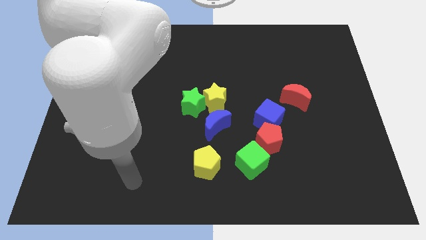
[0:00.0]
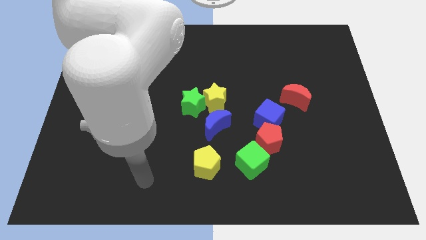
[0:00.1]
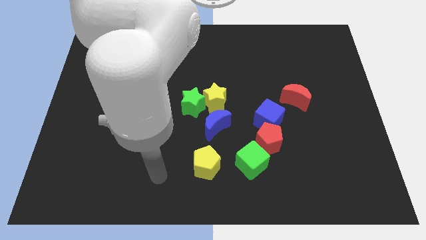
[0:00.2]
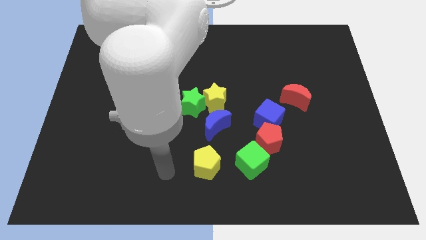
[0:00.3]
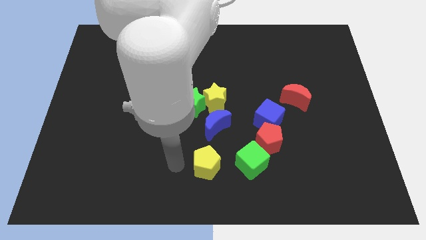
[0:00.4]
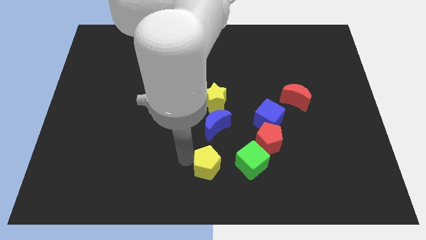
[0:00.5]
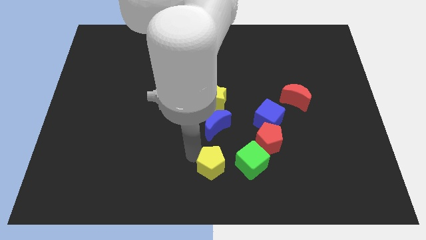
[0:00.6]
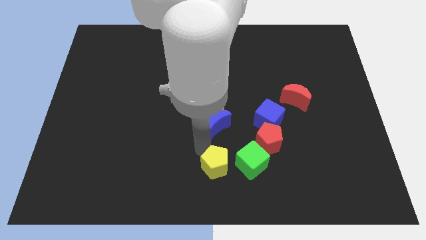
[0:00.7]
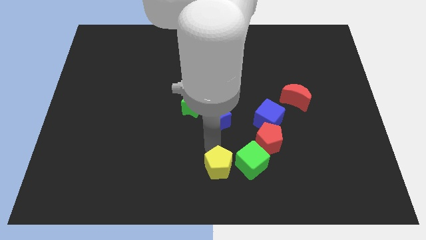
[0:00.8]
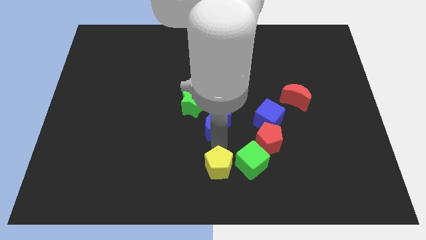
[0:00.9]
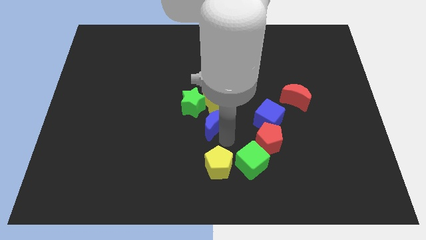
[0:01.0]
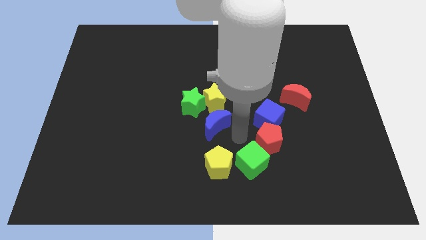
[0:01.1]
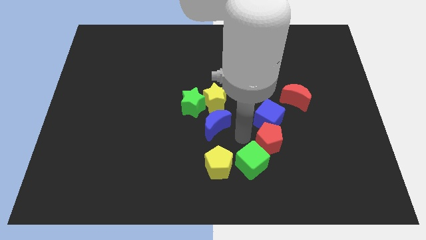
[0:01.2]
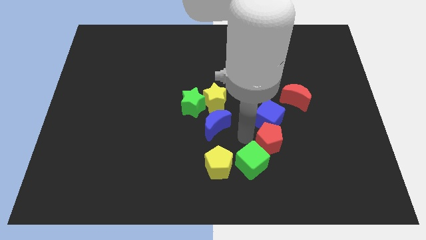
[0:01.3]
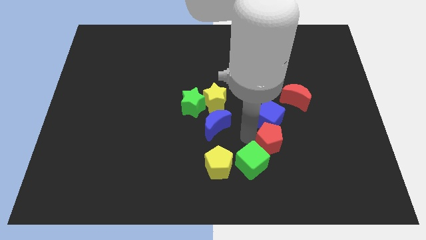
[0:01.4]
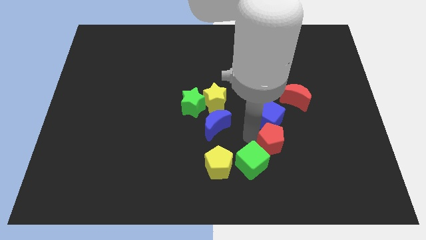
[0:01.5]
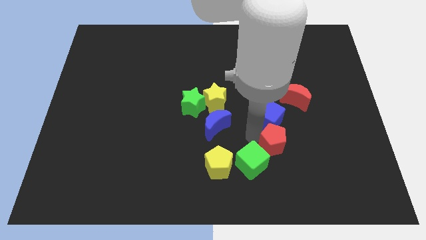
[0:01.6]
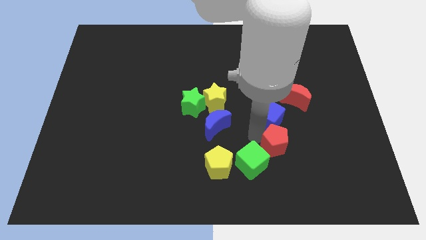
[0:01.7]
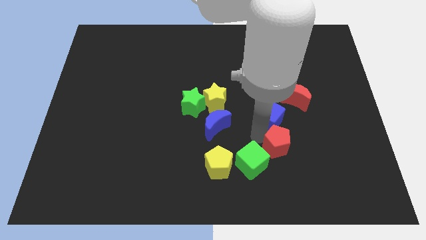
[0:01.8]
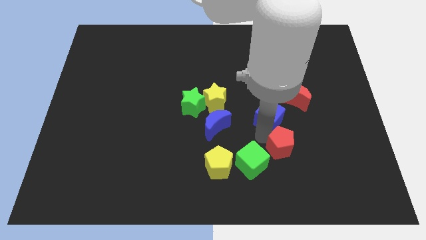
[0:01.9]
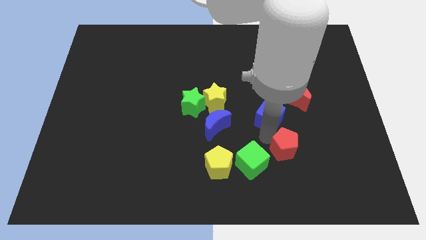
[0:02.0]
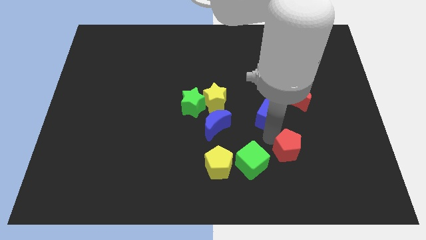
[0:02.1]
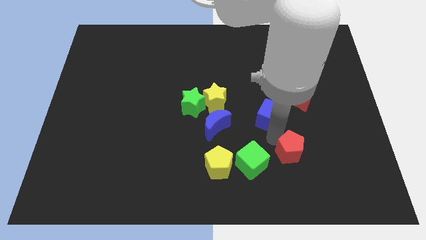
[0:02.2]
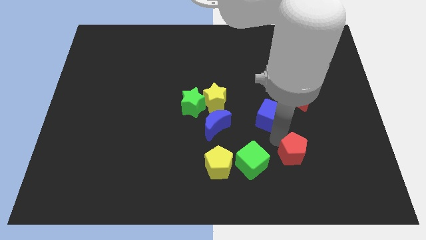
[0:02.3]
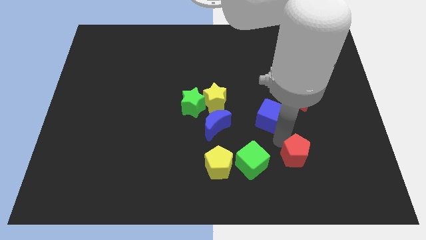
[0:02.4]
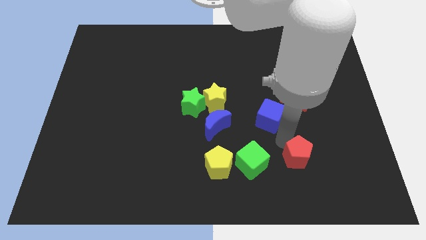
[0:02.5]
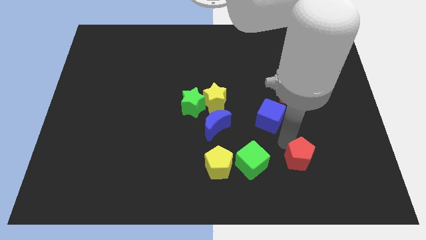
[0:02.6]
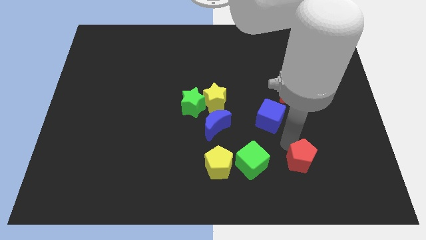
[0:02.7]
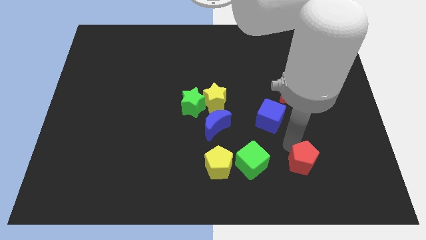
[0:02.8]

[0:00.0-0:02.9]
separate the red pentagon from the blue cube and green cube

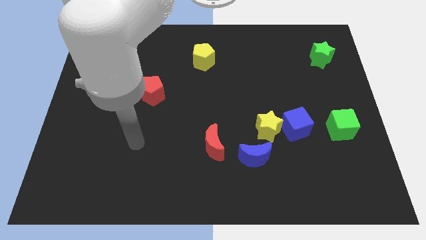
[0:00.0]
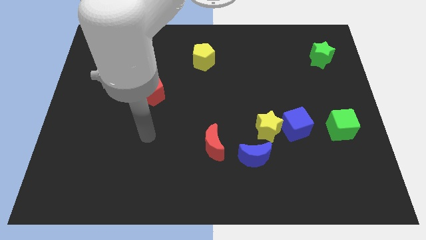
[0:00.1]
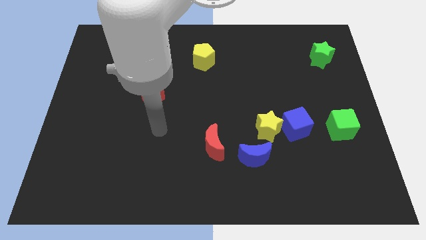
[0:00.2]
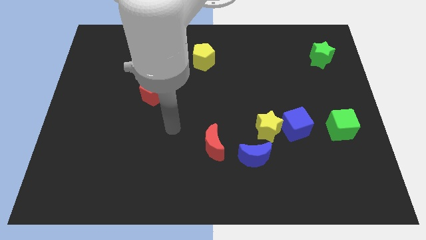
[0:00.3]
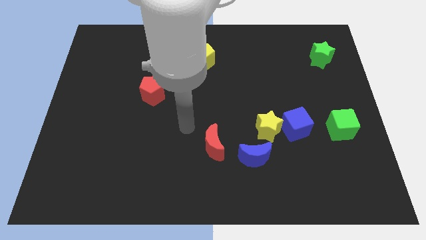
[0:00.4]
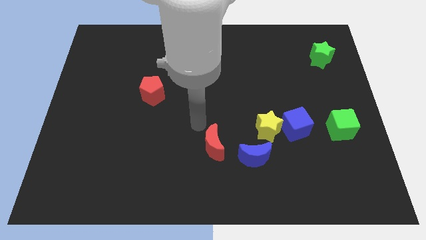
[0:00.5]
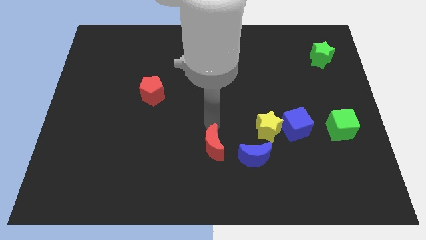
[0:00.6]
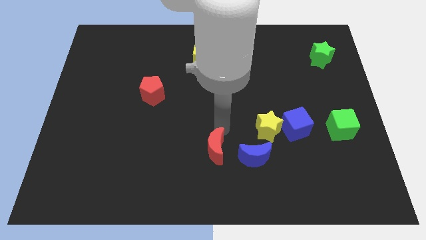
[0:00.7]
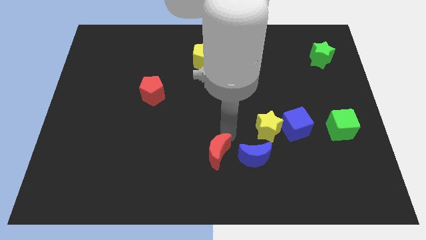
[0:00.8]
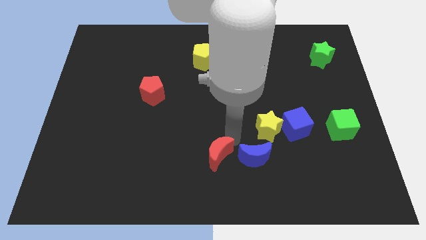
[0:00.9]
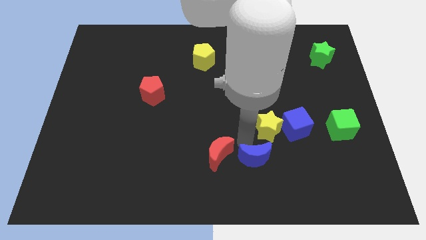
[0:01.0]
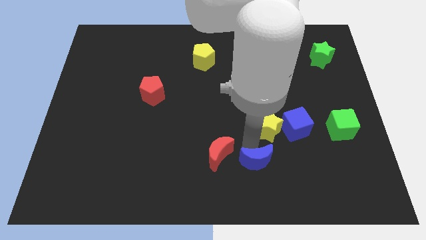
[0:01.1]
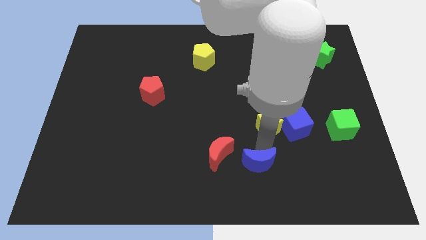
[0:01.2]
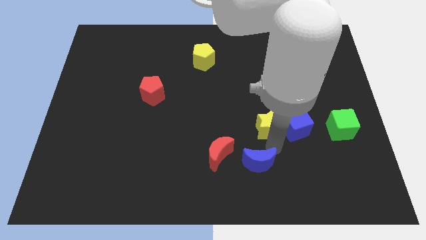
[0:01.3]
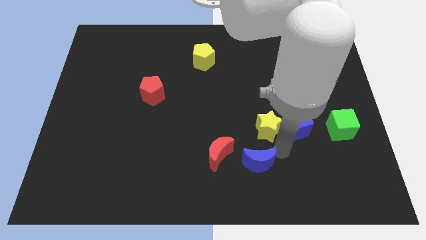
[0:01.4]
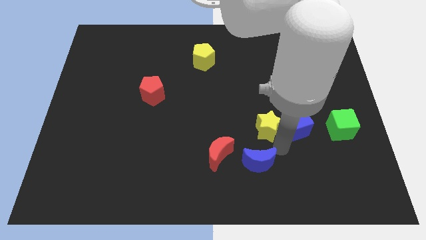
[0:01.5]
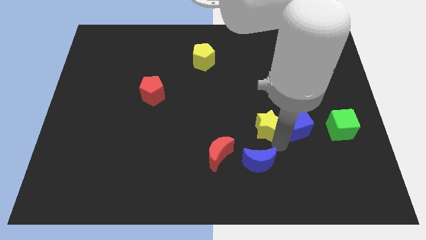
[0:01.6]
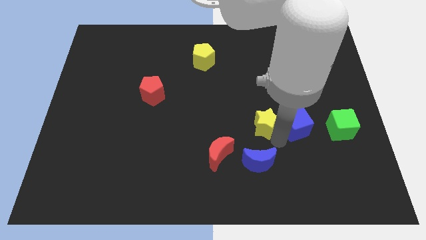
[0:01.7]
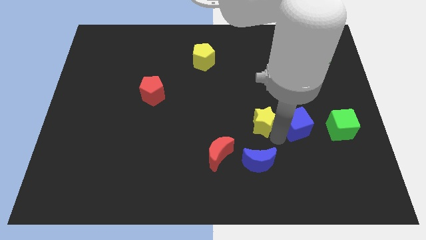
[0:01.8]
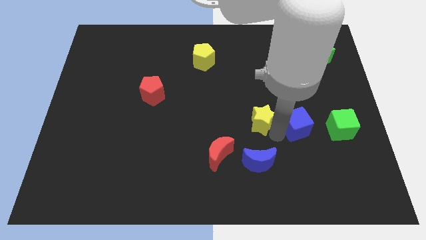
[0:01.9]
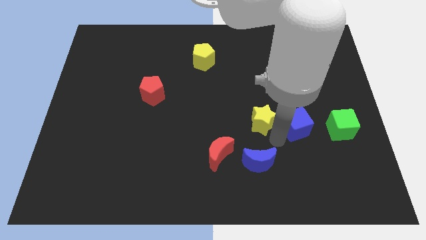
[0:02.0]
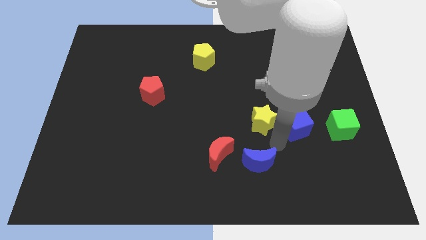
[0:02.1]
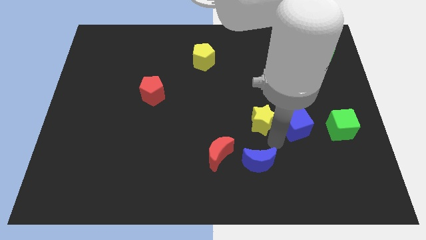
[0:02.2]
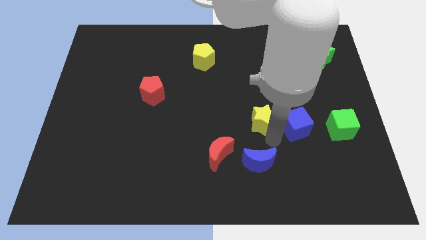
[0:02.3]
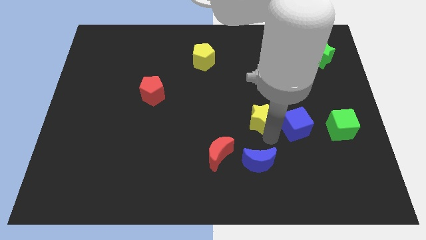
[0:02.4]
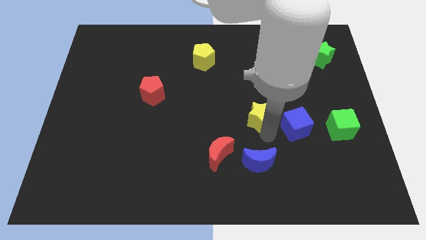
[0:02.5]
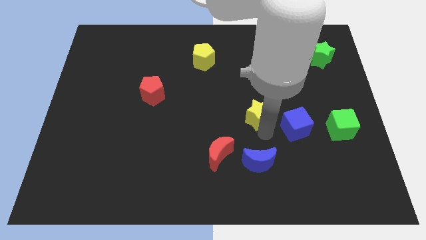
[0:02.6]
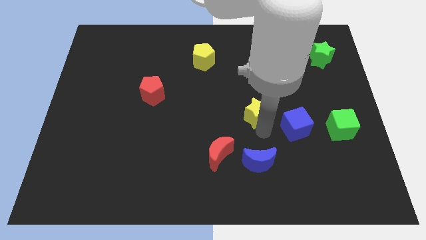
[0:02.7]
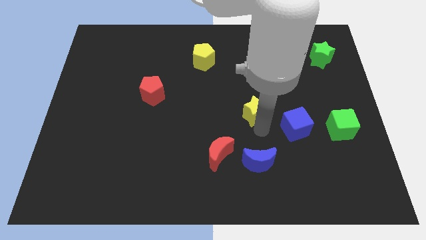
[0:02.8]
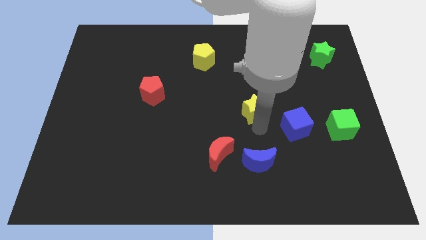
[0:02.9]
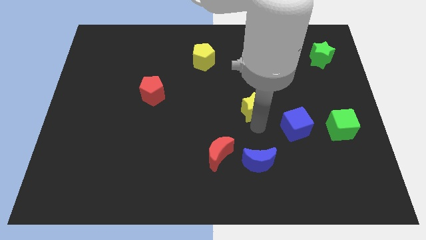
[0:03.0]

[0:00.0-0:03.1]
separate the yellow star from the blue cube and blue moon

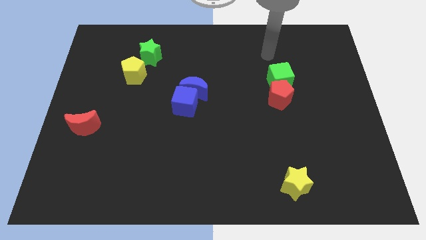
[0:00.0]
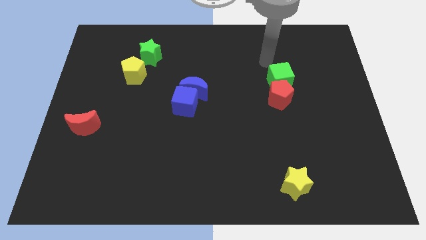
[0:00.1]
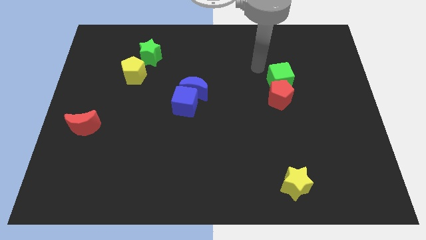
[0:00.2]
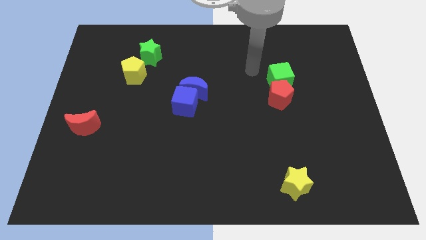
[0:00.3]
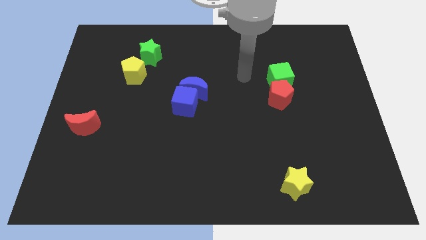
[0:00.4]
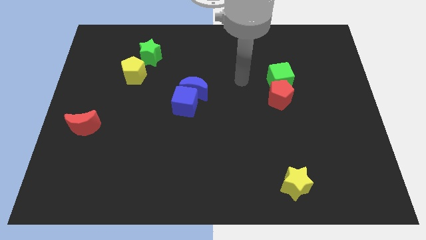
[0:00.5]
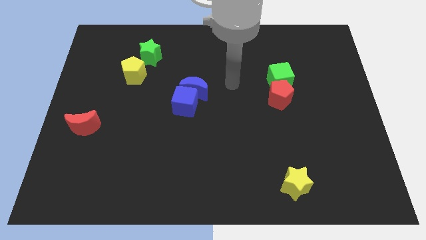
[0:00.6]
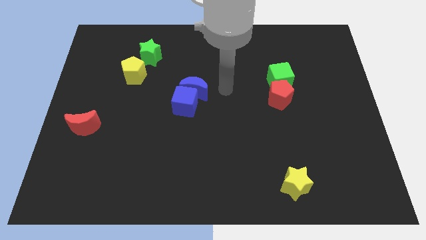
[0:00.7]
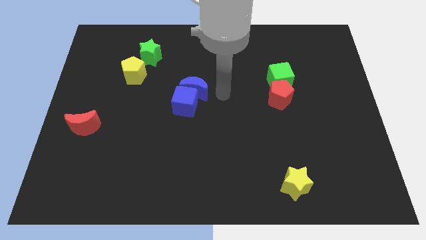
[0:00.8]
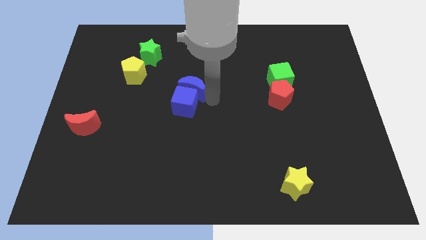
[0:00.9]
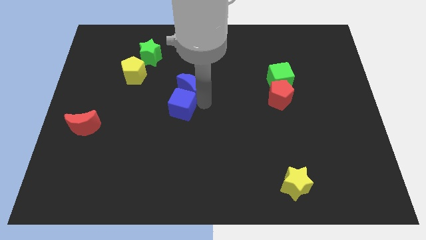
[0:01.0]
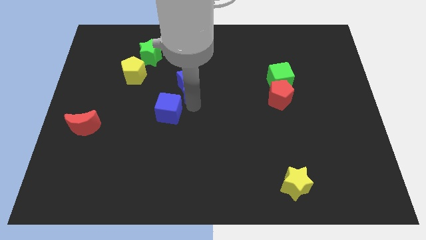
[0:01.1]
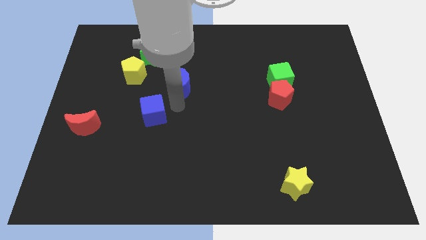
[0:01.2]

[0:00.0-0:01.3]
move the blue moon away from the blue cube

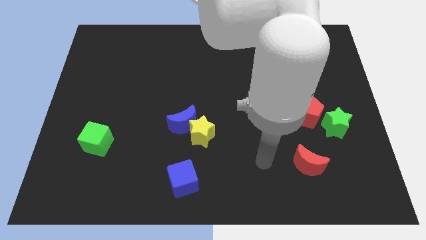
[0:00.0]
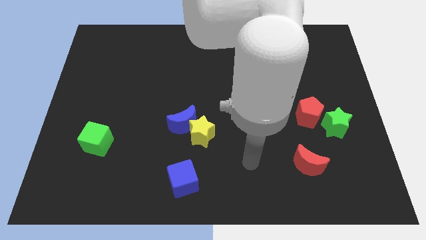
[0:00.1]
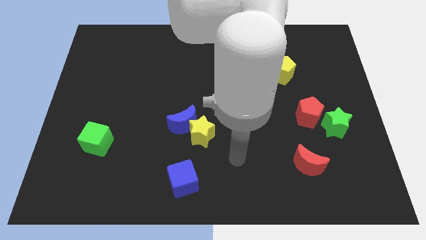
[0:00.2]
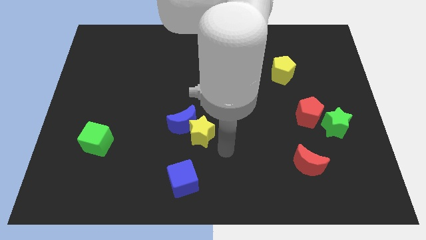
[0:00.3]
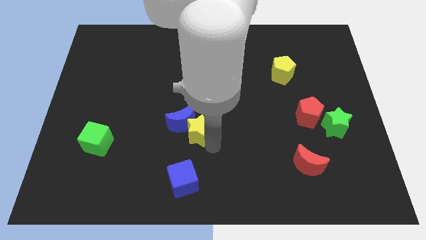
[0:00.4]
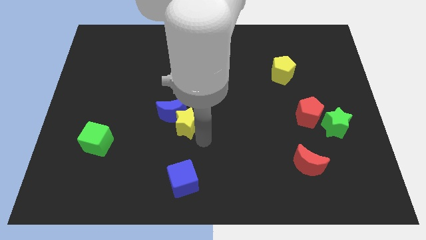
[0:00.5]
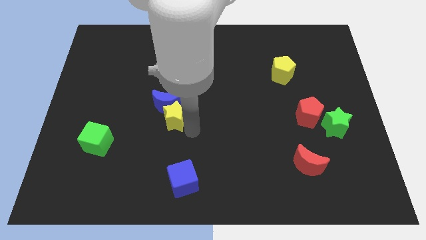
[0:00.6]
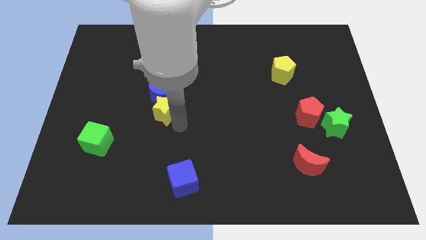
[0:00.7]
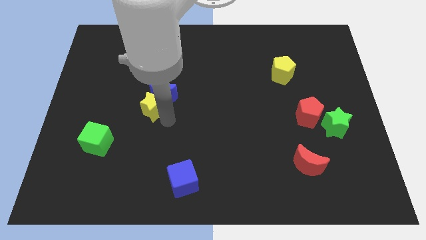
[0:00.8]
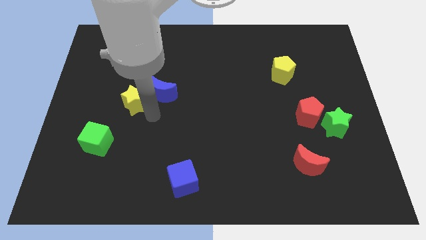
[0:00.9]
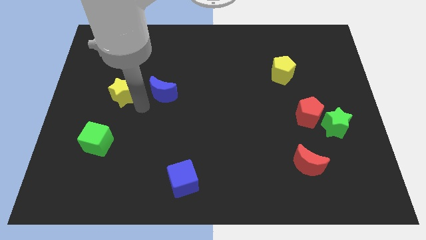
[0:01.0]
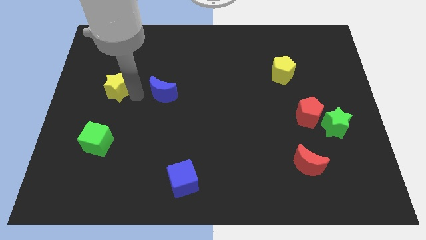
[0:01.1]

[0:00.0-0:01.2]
move the blue moon away from the yellow star

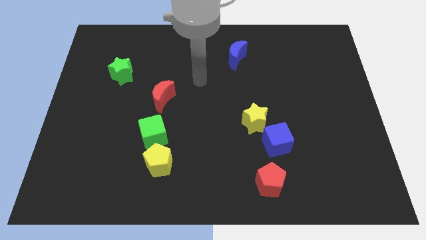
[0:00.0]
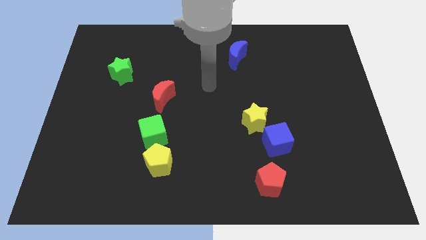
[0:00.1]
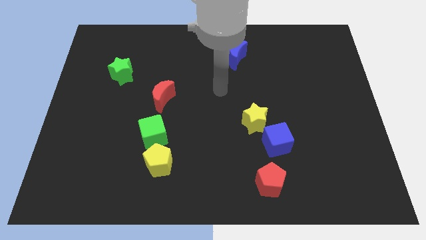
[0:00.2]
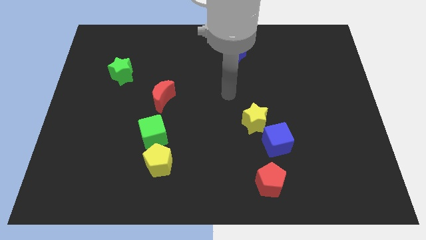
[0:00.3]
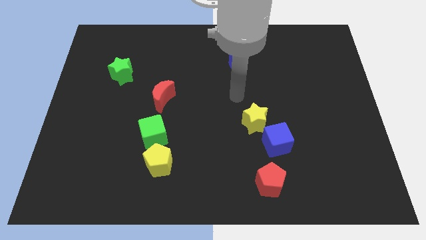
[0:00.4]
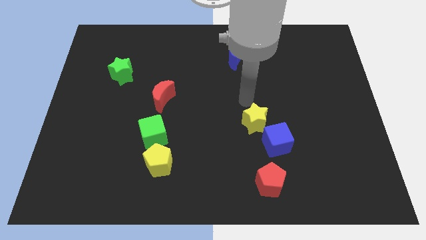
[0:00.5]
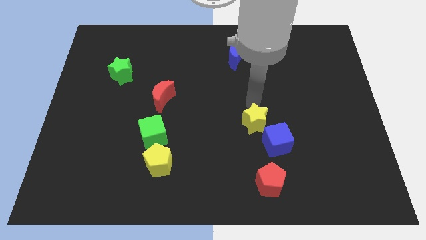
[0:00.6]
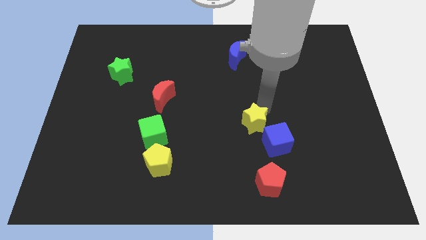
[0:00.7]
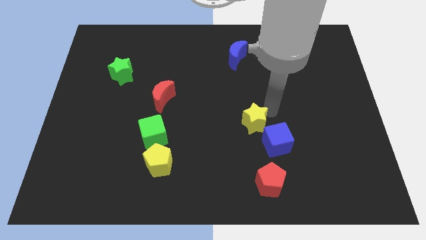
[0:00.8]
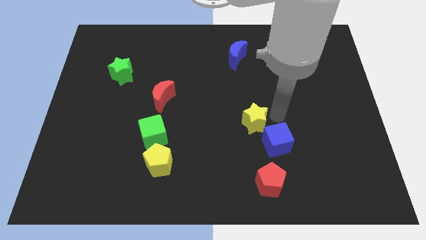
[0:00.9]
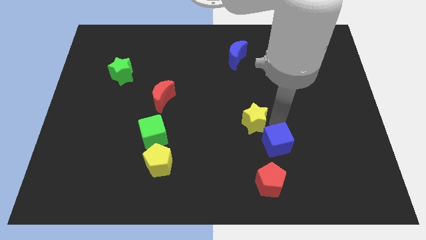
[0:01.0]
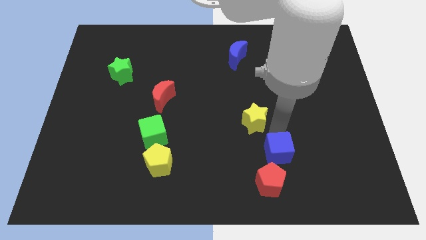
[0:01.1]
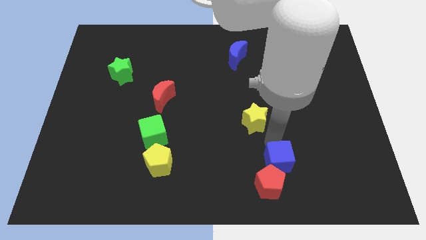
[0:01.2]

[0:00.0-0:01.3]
separate the yellow star from the blue cube
